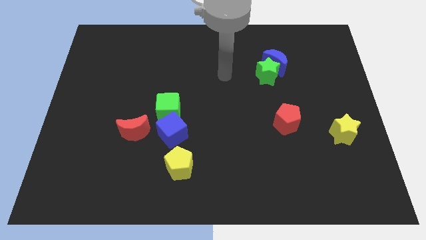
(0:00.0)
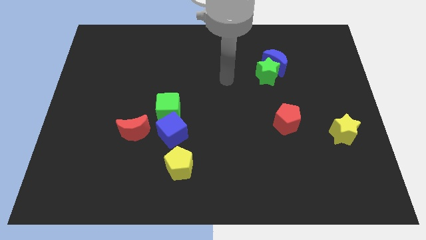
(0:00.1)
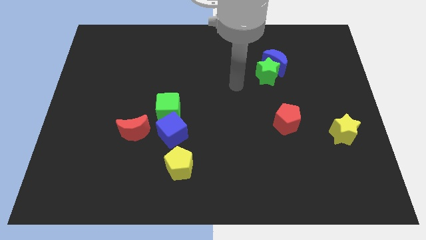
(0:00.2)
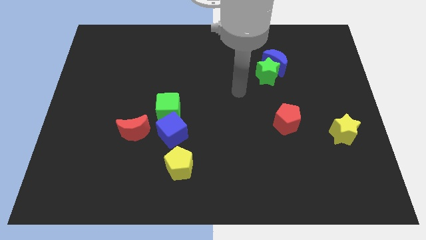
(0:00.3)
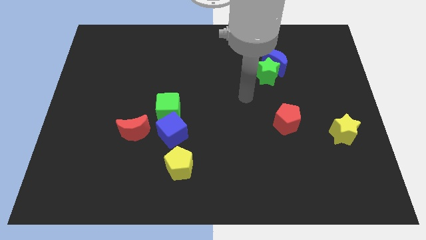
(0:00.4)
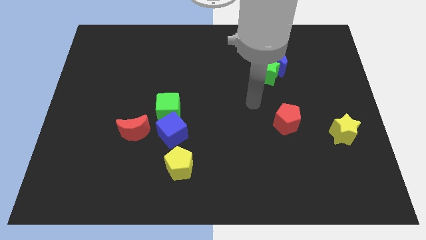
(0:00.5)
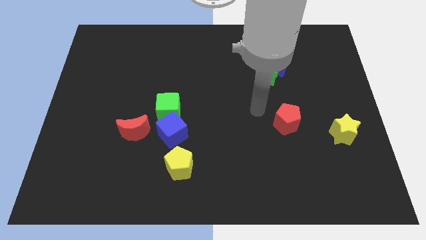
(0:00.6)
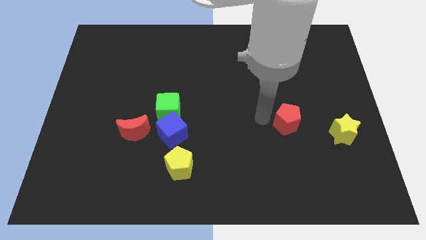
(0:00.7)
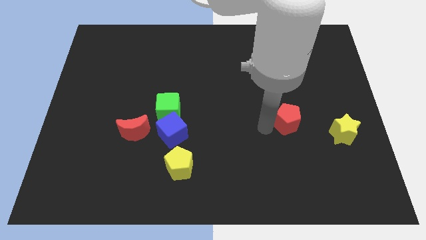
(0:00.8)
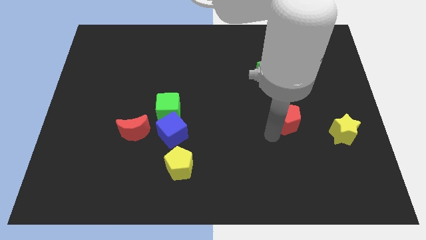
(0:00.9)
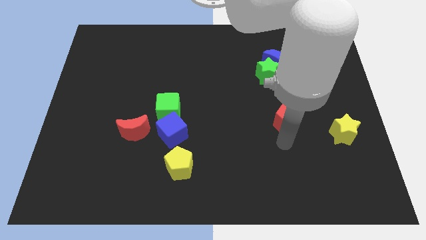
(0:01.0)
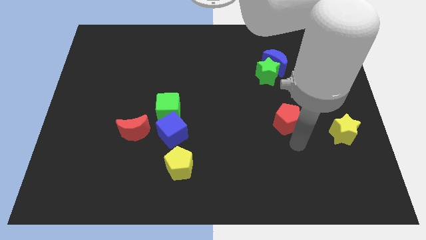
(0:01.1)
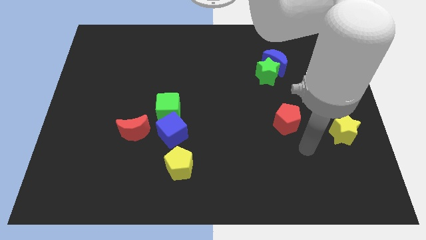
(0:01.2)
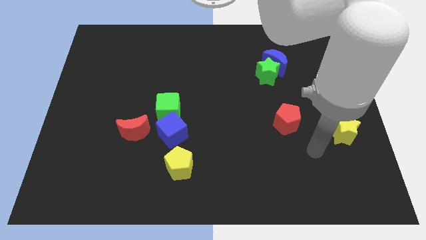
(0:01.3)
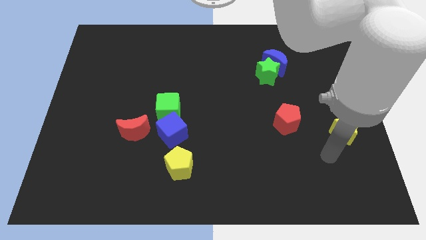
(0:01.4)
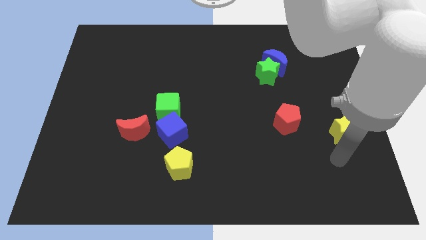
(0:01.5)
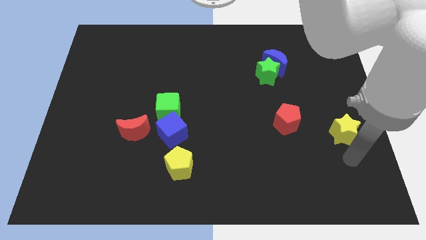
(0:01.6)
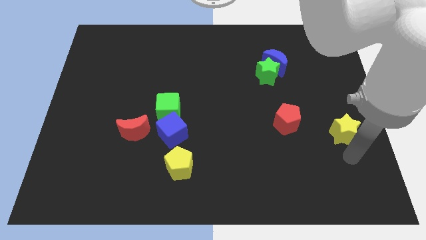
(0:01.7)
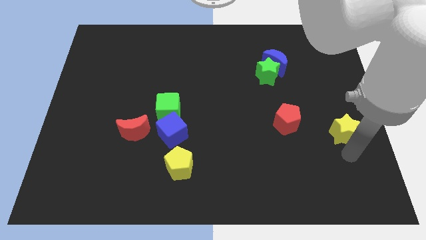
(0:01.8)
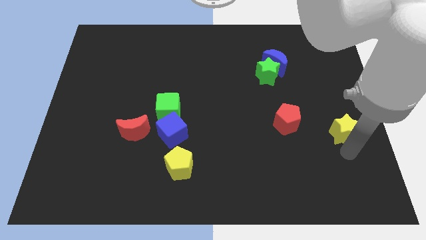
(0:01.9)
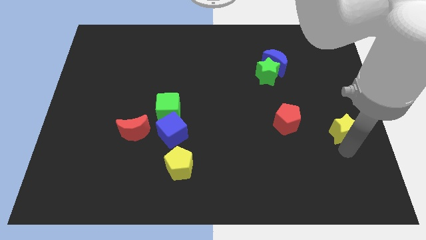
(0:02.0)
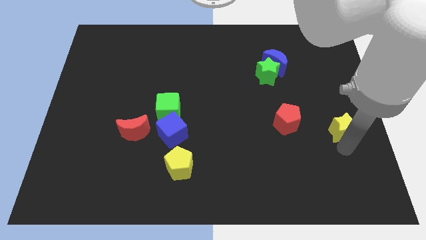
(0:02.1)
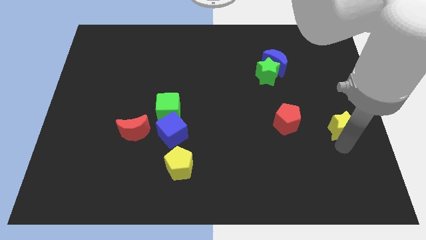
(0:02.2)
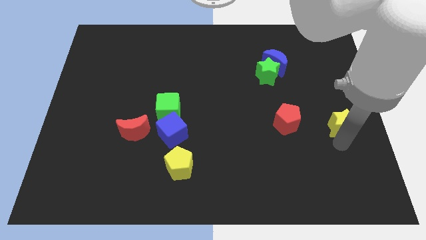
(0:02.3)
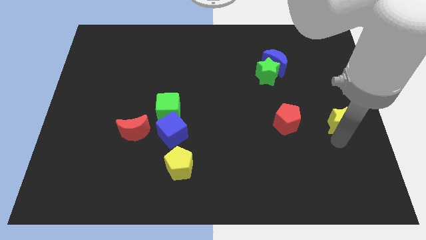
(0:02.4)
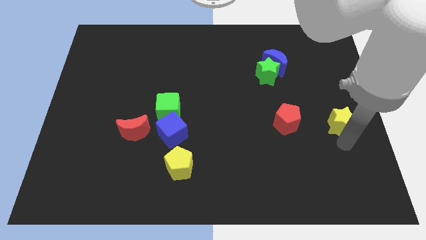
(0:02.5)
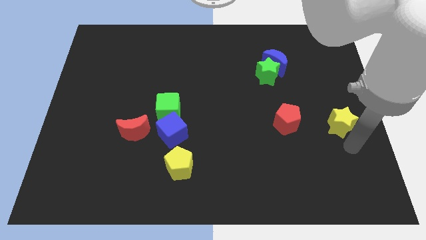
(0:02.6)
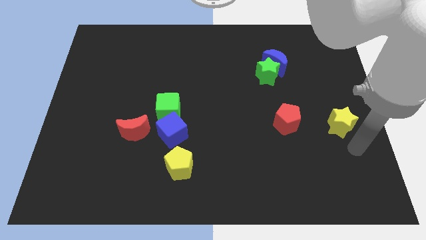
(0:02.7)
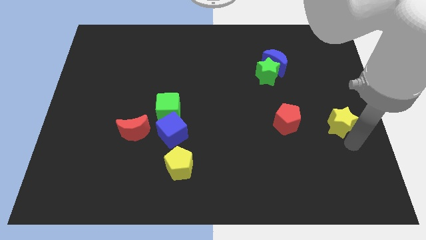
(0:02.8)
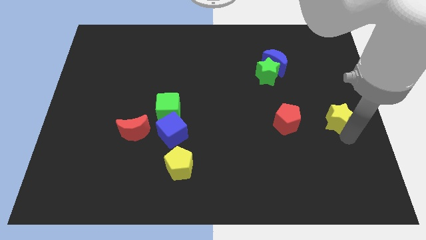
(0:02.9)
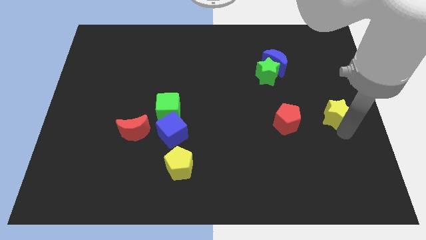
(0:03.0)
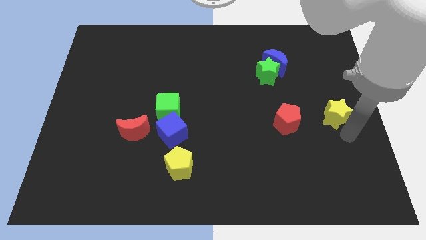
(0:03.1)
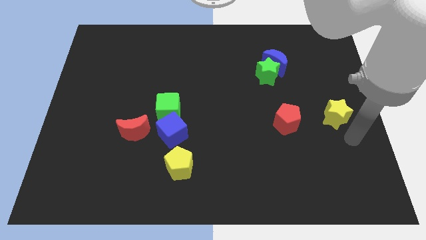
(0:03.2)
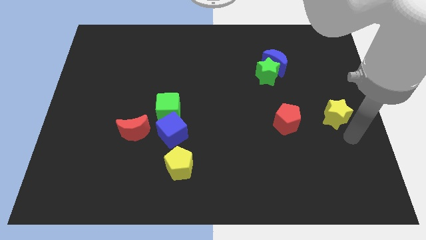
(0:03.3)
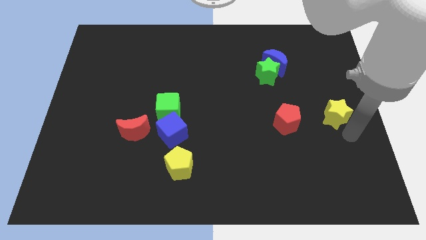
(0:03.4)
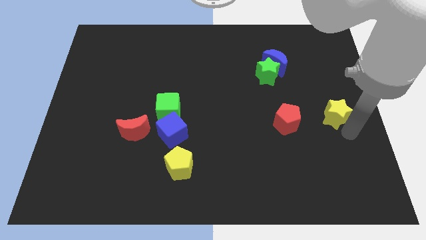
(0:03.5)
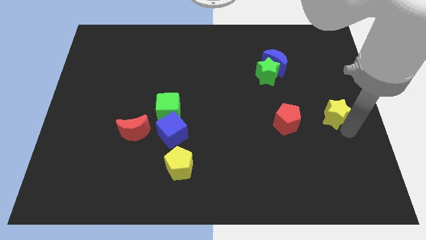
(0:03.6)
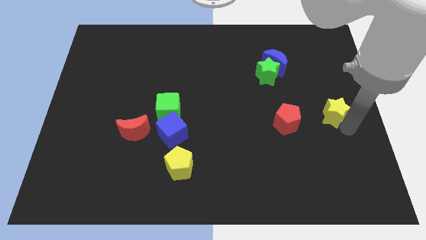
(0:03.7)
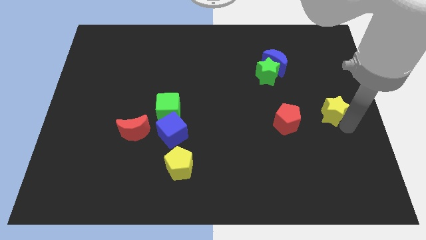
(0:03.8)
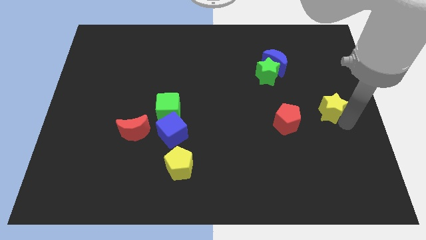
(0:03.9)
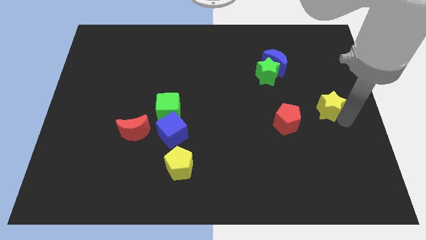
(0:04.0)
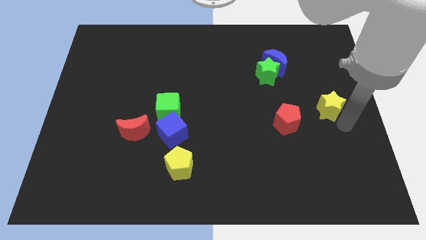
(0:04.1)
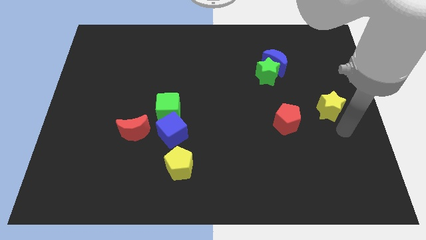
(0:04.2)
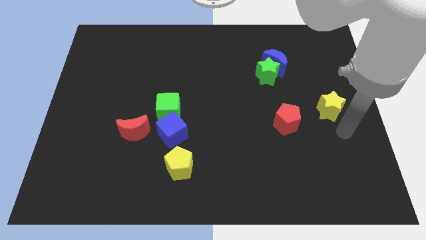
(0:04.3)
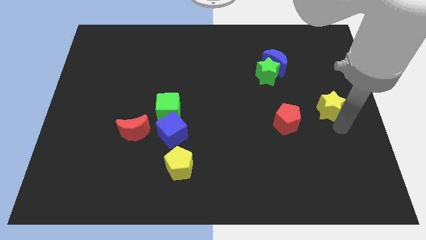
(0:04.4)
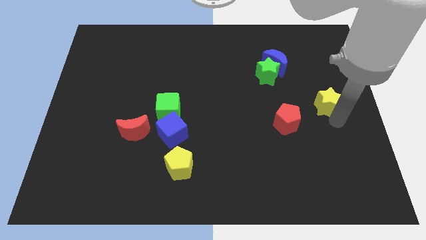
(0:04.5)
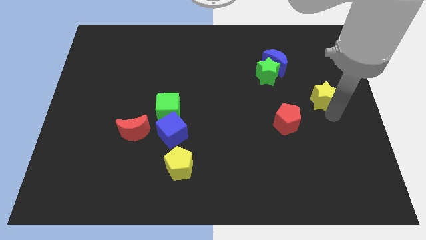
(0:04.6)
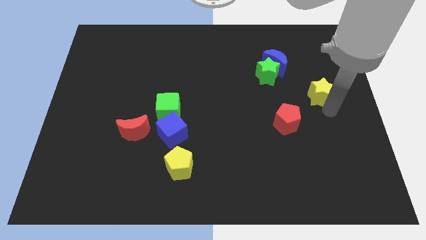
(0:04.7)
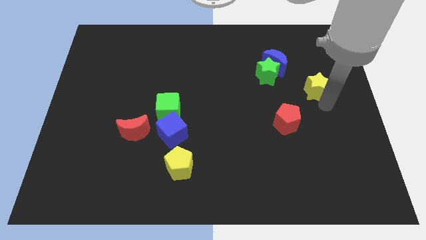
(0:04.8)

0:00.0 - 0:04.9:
push the yellow star to the right of the green star

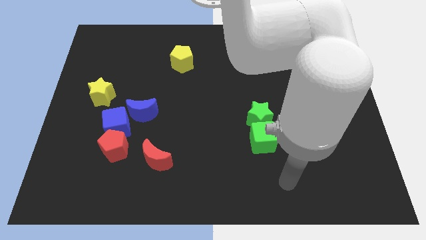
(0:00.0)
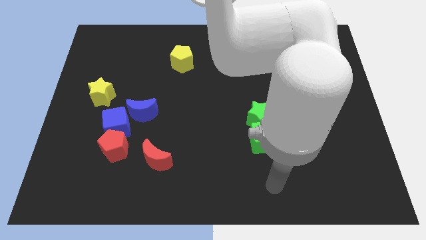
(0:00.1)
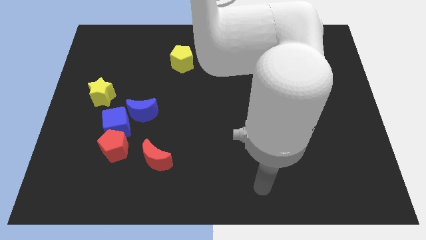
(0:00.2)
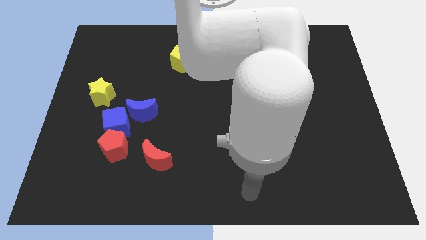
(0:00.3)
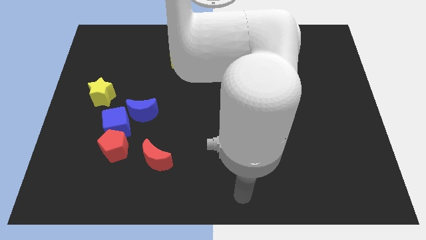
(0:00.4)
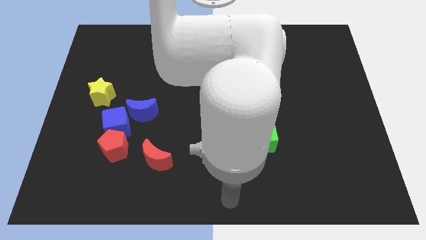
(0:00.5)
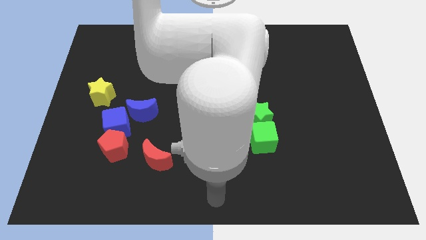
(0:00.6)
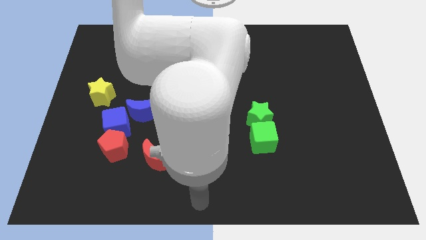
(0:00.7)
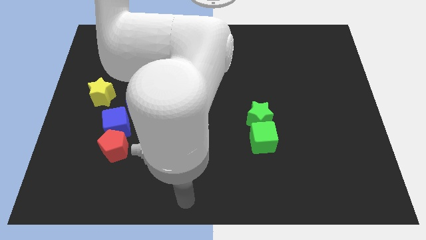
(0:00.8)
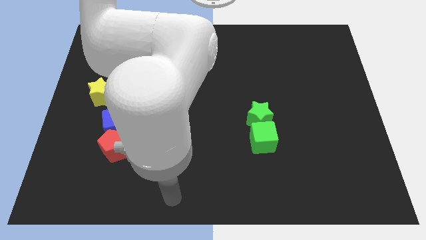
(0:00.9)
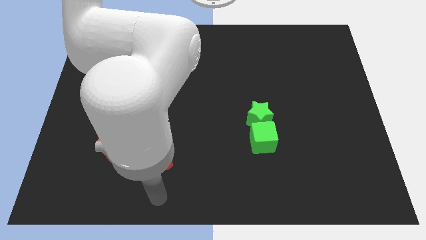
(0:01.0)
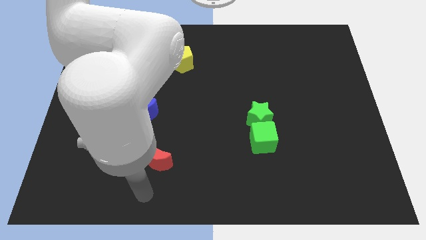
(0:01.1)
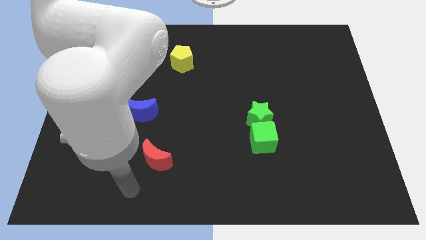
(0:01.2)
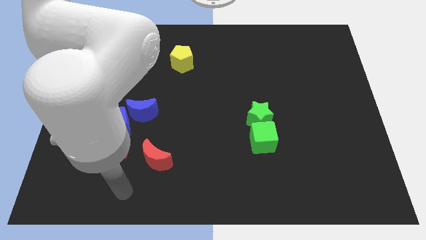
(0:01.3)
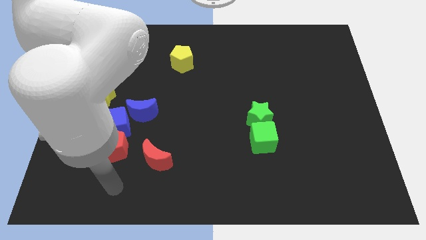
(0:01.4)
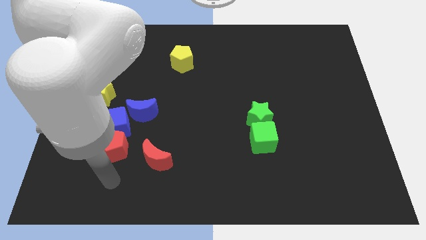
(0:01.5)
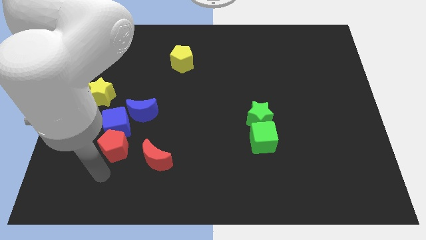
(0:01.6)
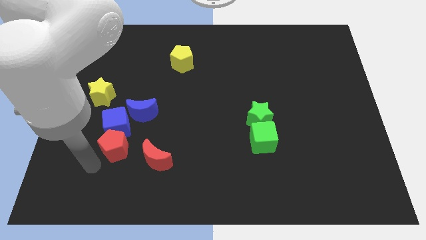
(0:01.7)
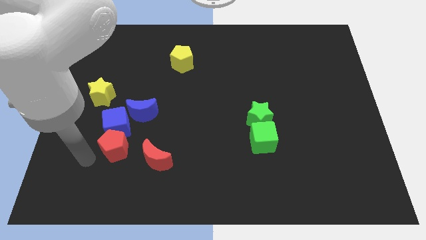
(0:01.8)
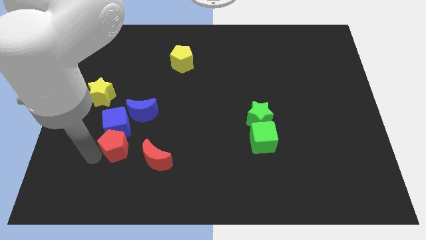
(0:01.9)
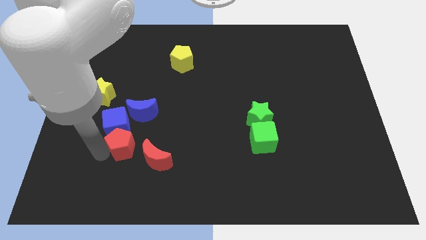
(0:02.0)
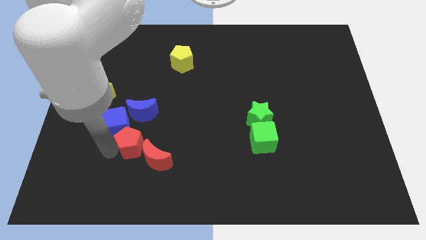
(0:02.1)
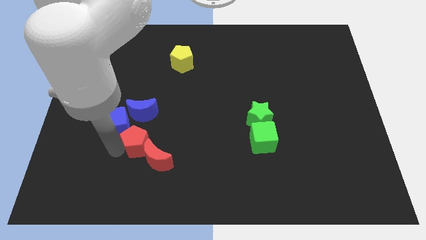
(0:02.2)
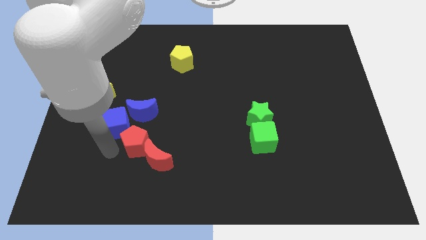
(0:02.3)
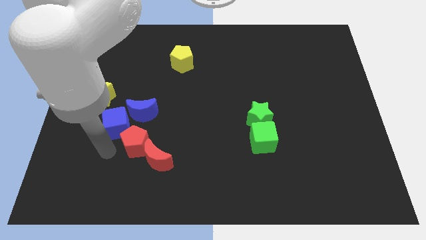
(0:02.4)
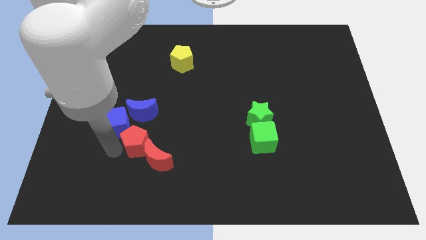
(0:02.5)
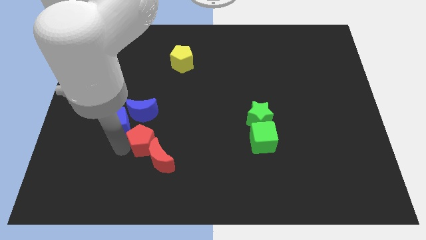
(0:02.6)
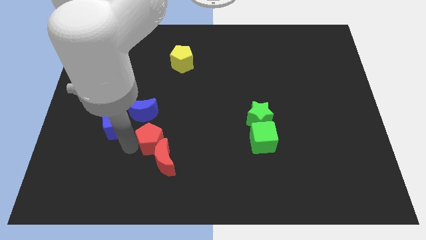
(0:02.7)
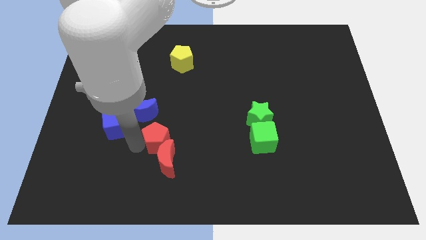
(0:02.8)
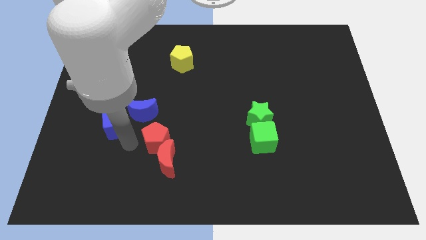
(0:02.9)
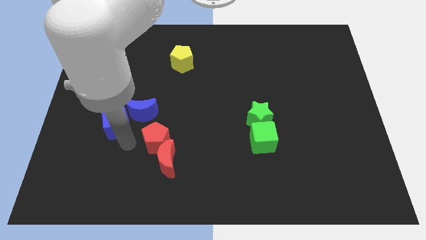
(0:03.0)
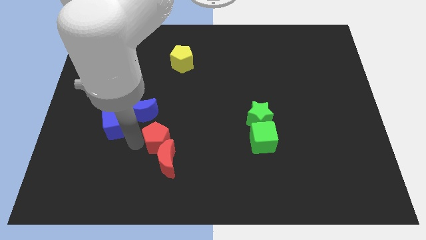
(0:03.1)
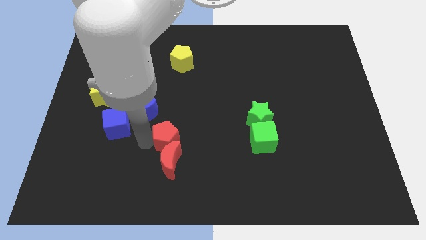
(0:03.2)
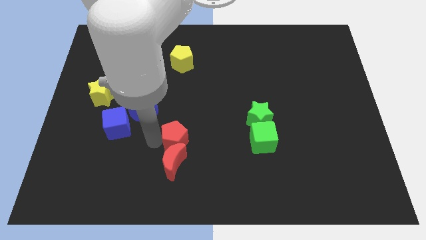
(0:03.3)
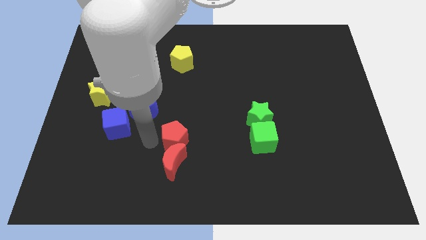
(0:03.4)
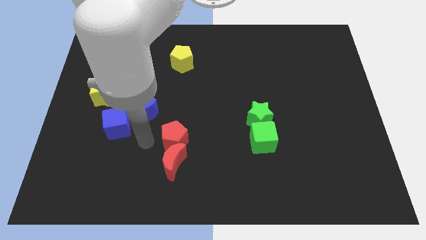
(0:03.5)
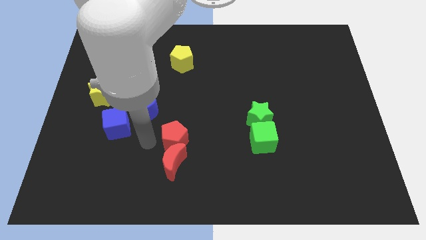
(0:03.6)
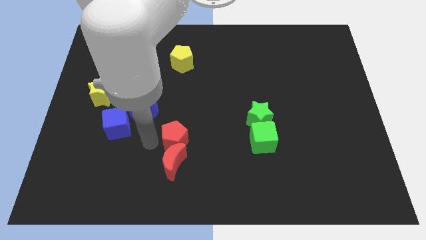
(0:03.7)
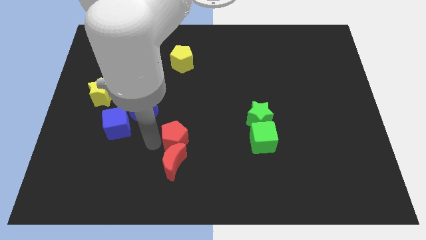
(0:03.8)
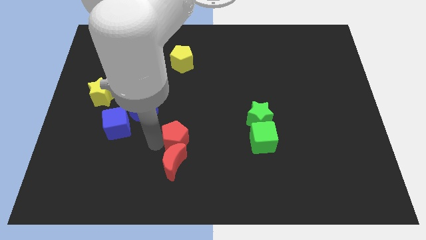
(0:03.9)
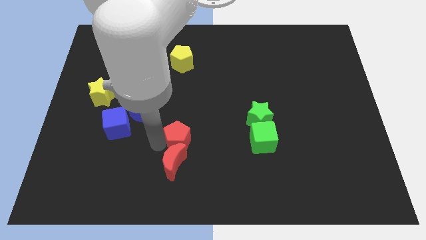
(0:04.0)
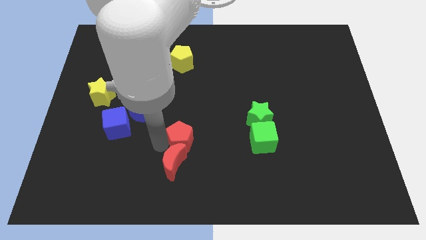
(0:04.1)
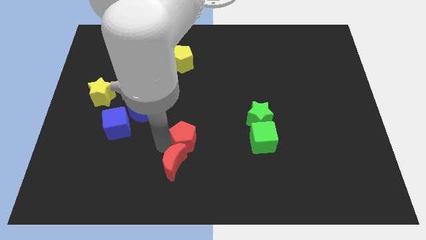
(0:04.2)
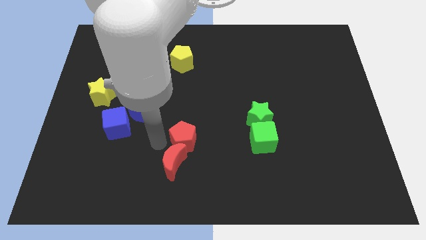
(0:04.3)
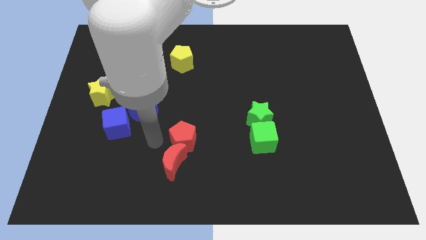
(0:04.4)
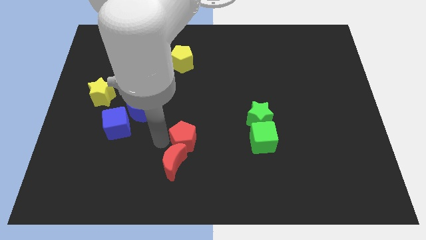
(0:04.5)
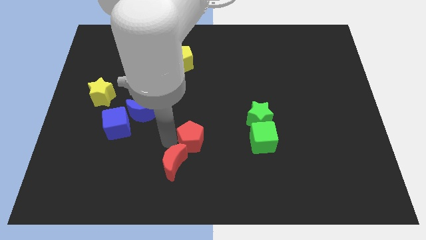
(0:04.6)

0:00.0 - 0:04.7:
move the red pentagon to the left of the green cube
